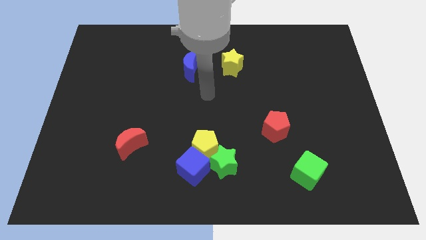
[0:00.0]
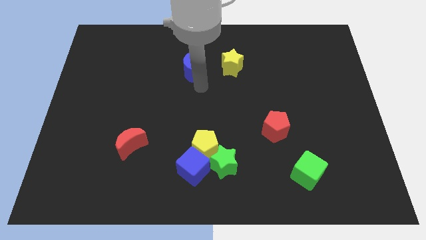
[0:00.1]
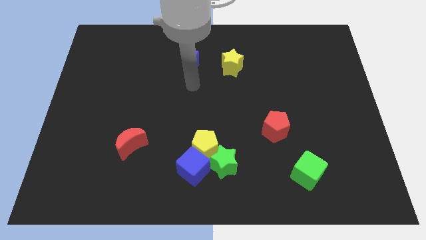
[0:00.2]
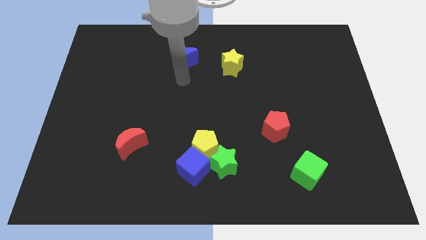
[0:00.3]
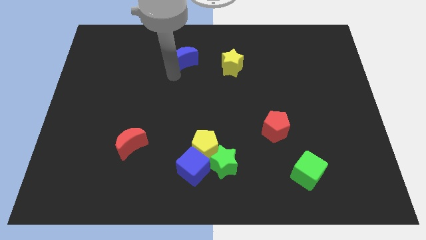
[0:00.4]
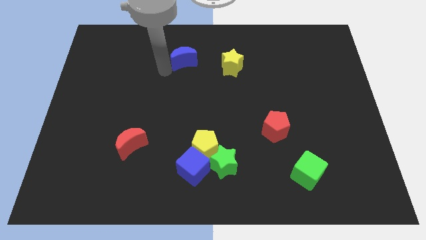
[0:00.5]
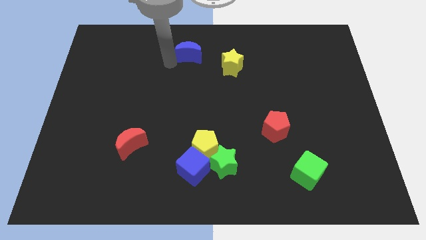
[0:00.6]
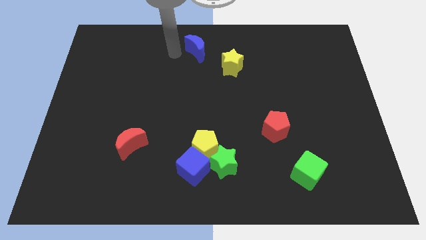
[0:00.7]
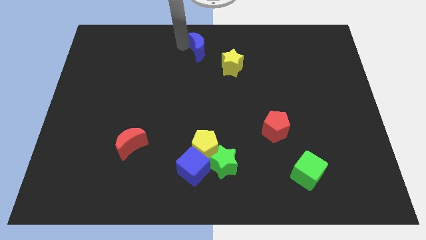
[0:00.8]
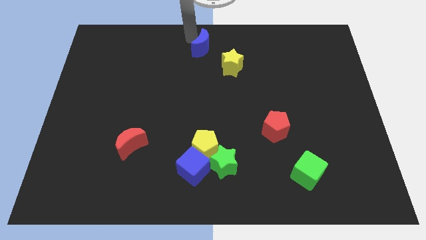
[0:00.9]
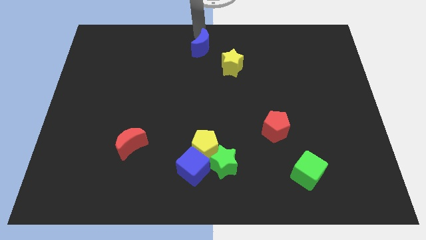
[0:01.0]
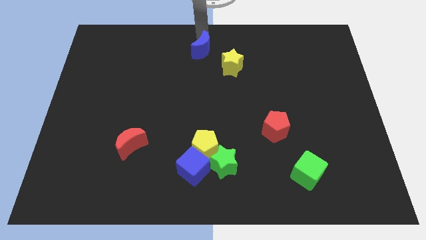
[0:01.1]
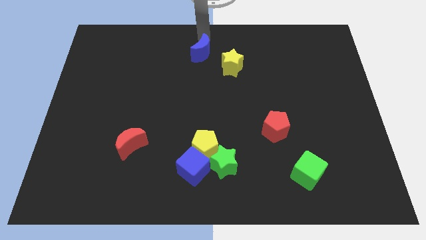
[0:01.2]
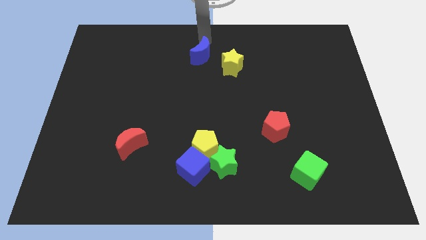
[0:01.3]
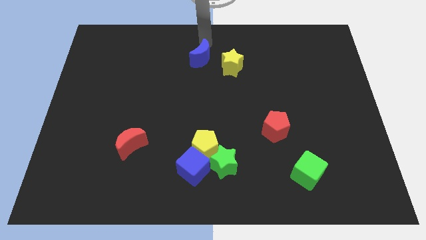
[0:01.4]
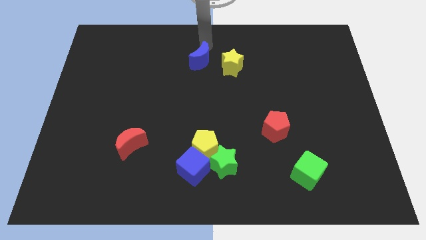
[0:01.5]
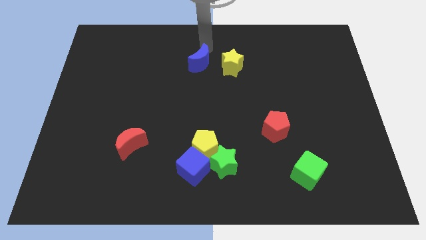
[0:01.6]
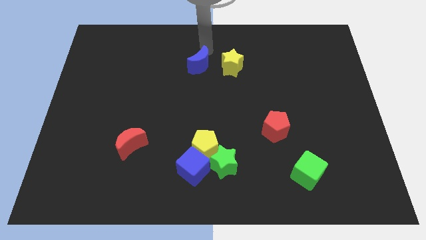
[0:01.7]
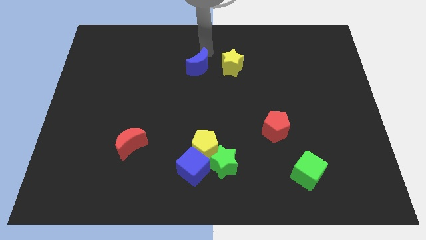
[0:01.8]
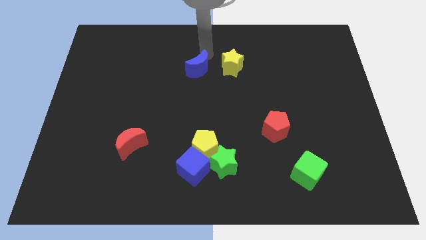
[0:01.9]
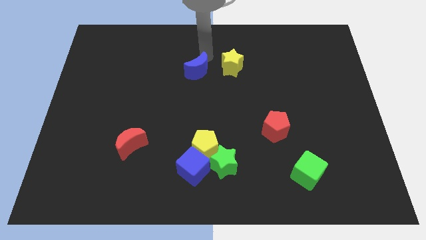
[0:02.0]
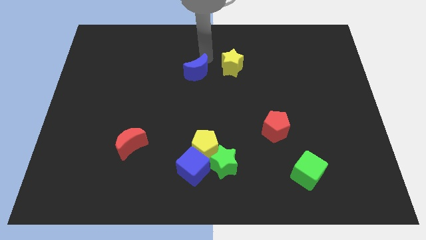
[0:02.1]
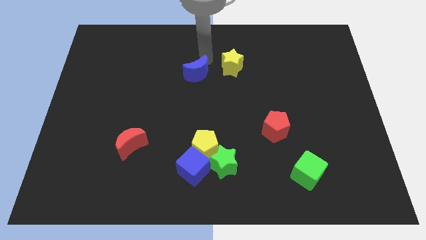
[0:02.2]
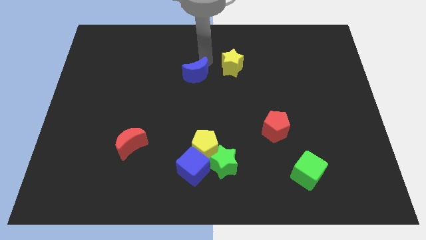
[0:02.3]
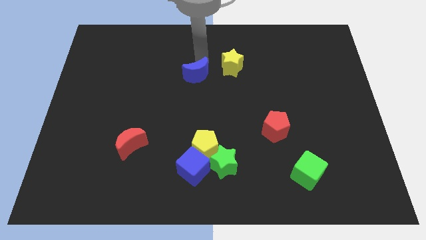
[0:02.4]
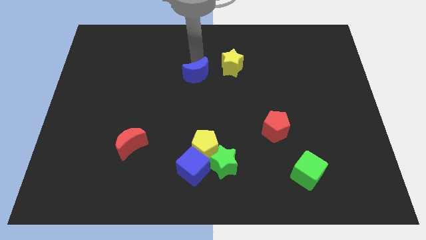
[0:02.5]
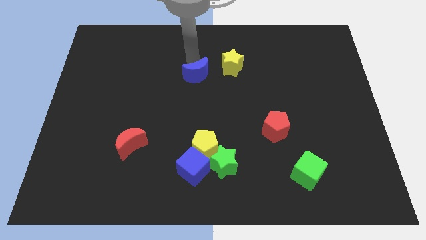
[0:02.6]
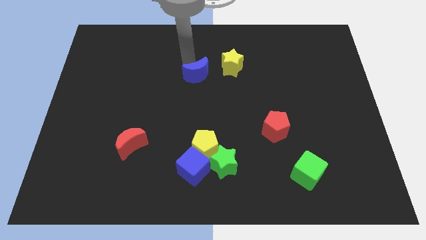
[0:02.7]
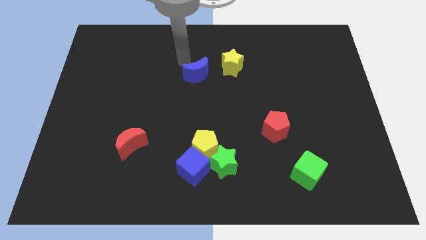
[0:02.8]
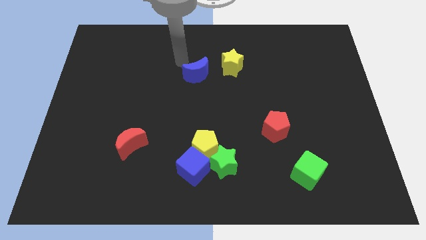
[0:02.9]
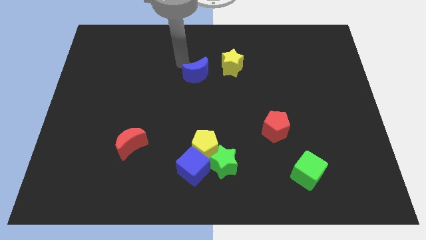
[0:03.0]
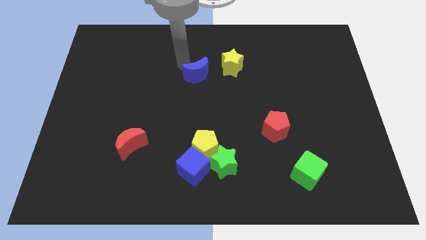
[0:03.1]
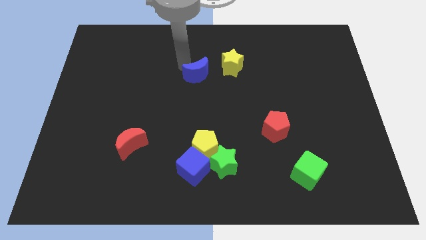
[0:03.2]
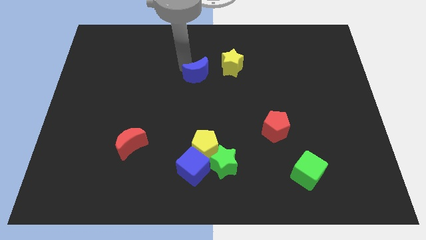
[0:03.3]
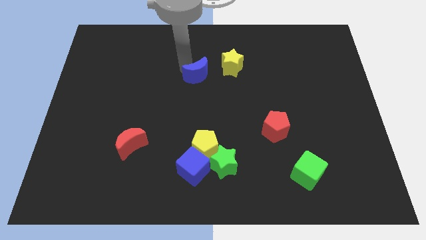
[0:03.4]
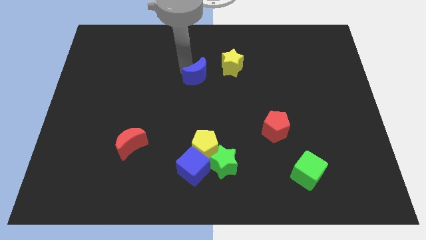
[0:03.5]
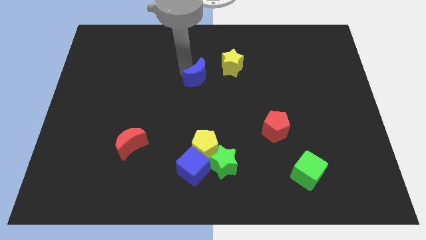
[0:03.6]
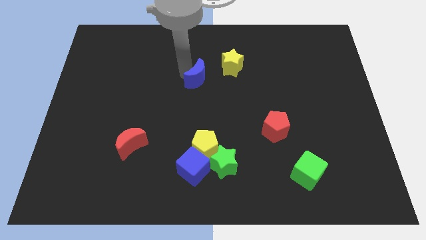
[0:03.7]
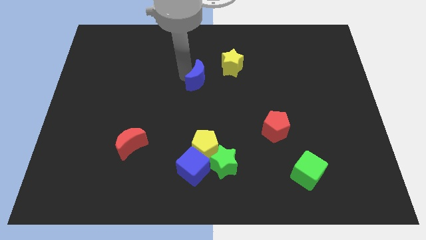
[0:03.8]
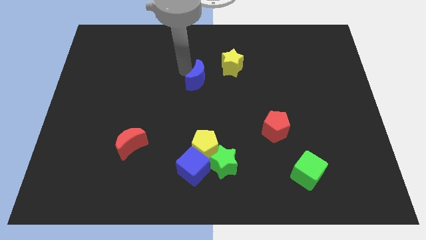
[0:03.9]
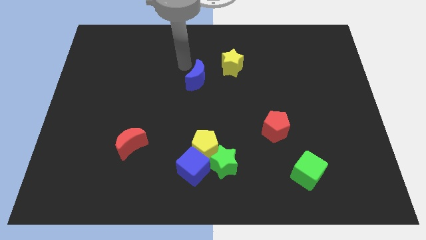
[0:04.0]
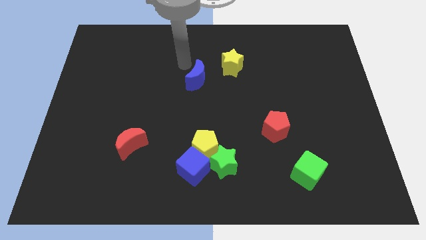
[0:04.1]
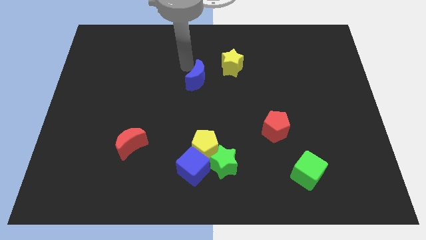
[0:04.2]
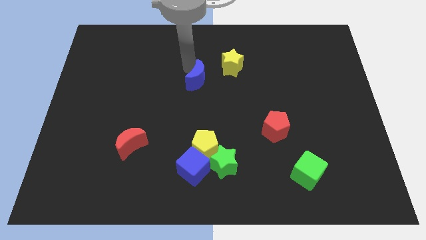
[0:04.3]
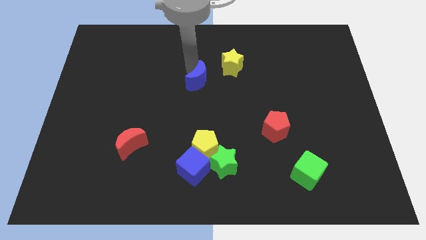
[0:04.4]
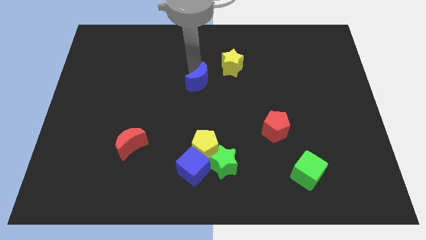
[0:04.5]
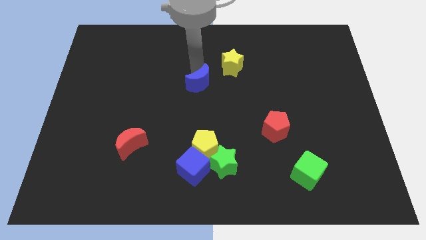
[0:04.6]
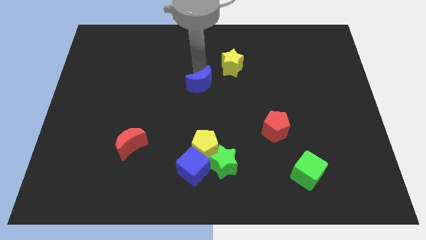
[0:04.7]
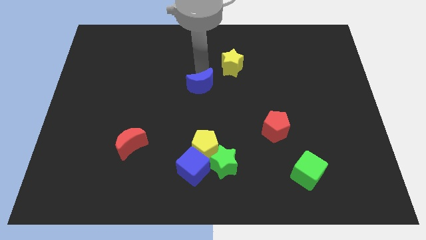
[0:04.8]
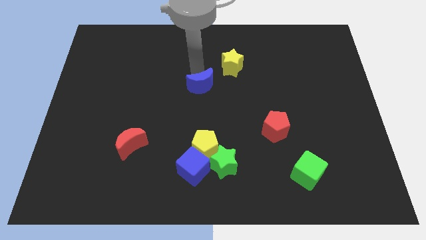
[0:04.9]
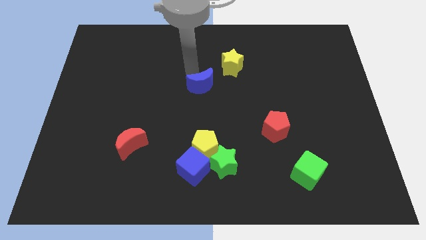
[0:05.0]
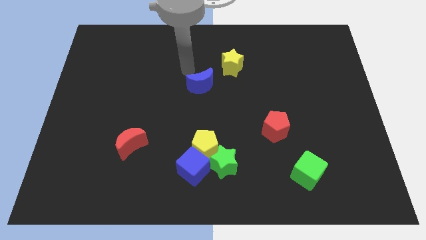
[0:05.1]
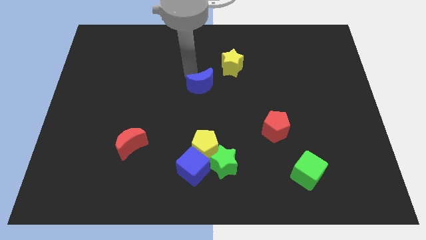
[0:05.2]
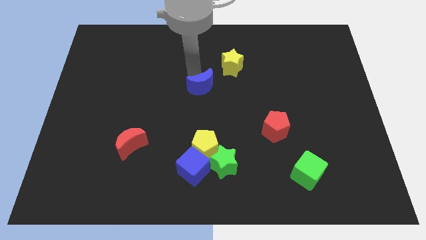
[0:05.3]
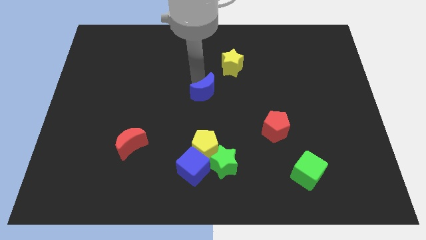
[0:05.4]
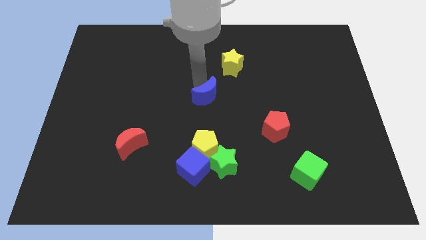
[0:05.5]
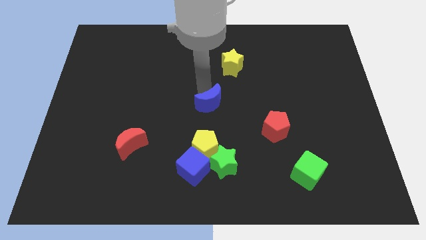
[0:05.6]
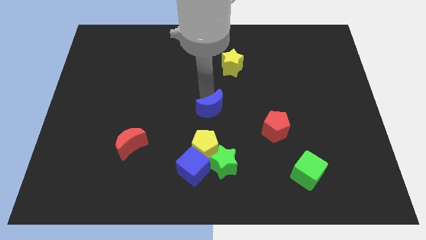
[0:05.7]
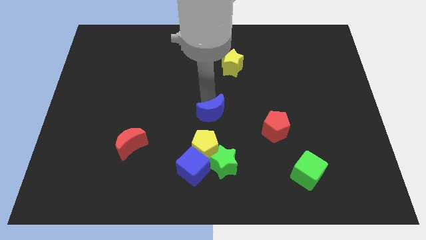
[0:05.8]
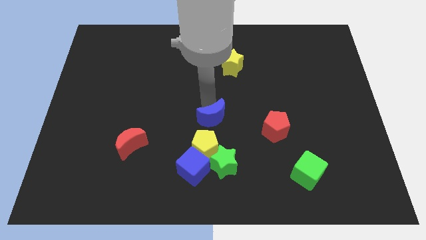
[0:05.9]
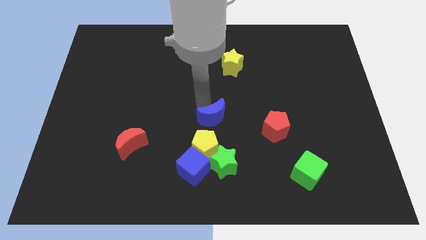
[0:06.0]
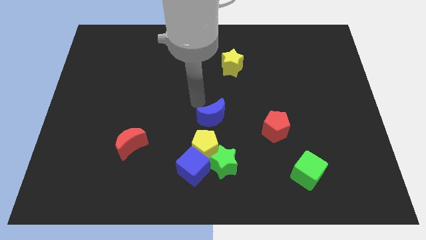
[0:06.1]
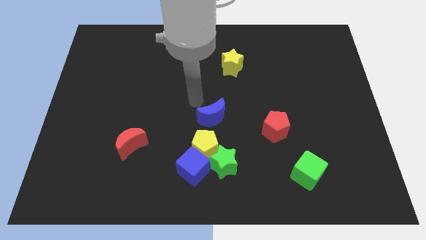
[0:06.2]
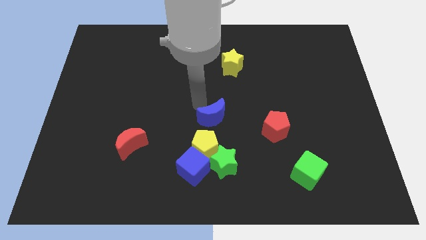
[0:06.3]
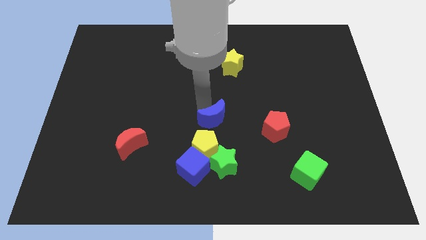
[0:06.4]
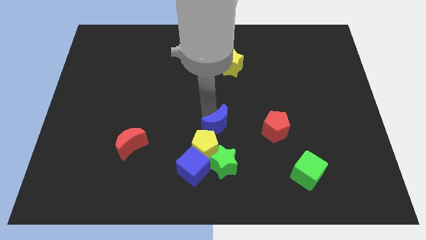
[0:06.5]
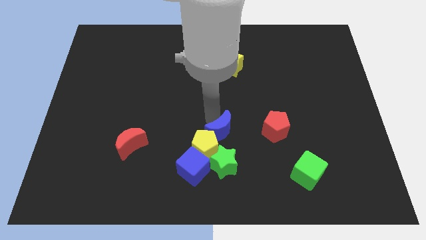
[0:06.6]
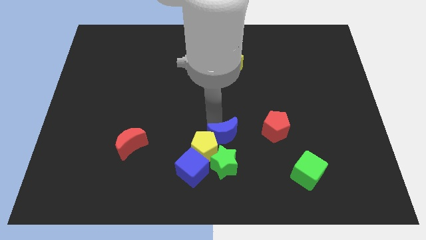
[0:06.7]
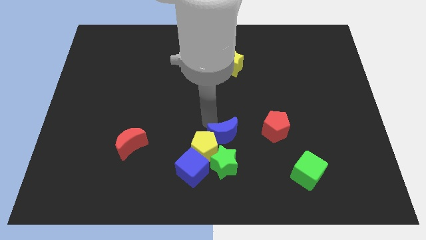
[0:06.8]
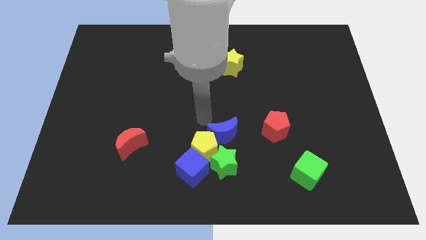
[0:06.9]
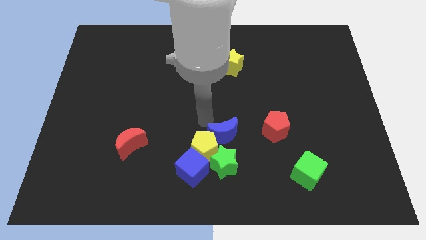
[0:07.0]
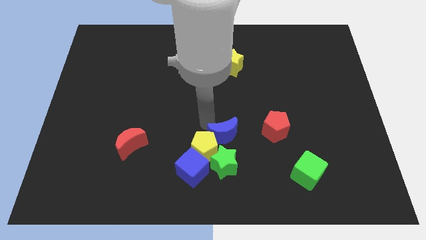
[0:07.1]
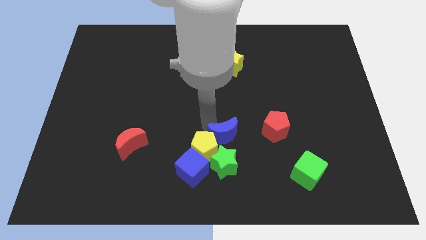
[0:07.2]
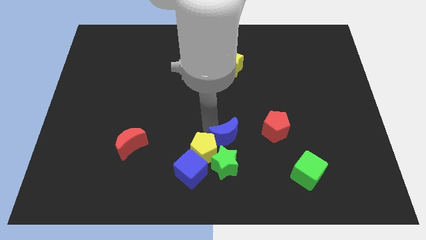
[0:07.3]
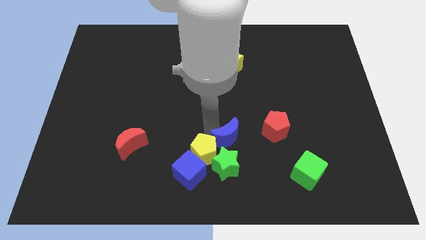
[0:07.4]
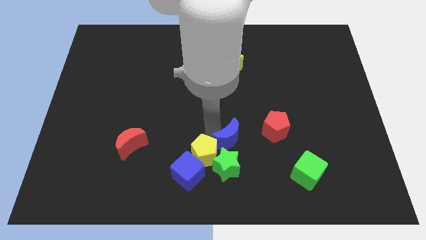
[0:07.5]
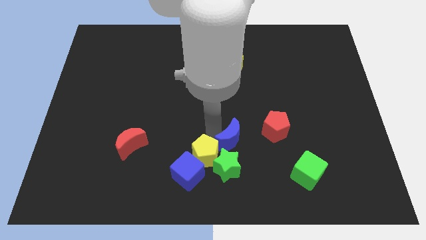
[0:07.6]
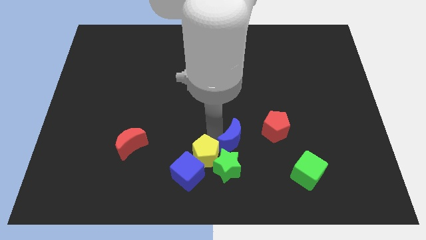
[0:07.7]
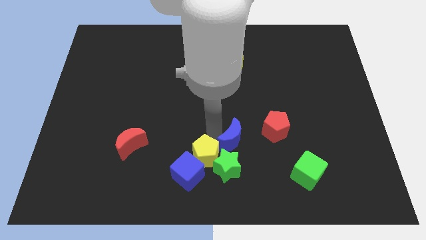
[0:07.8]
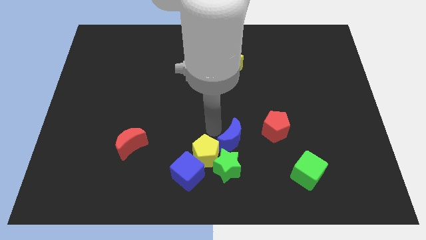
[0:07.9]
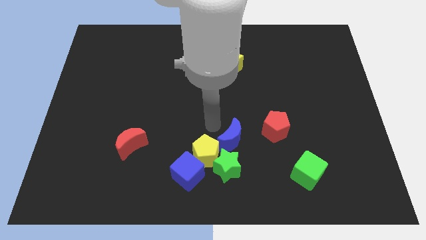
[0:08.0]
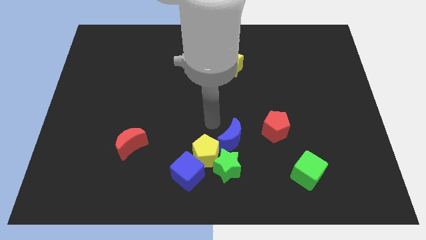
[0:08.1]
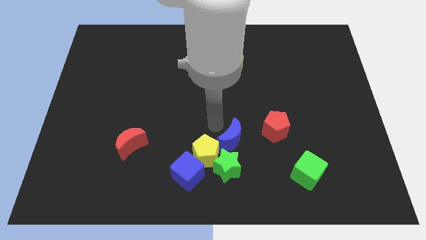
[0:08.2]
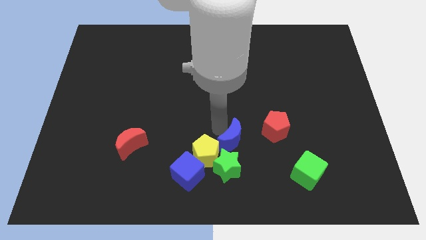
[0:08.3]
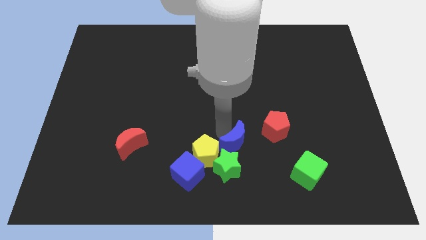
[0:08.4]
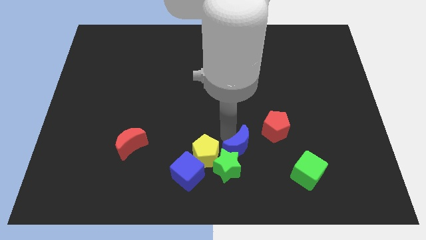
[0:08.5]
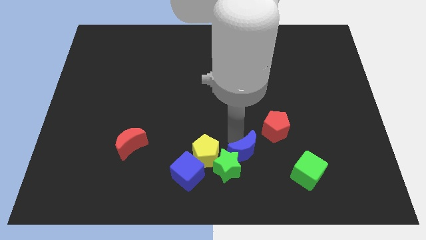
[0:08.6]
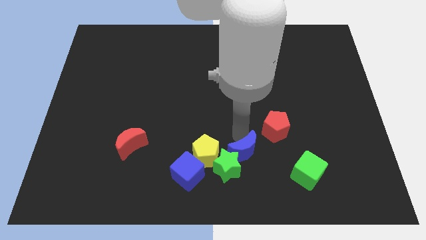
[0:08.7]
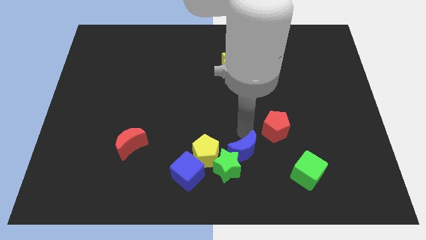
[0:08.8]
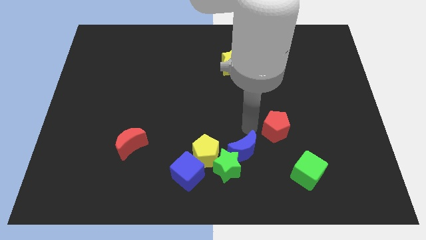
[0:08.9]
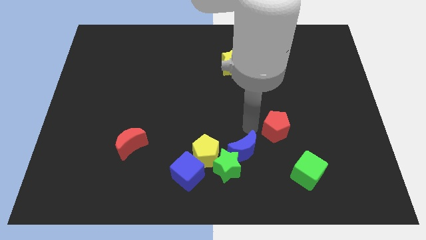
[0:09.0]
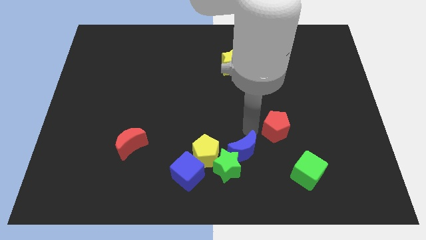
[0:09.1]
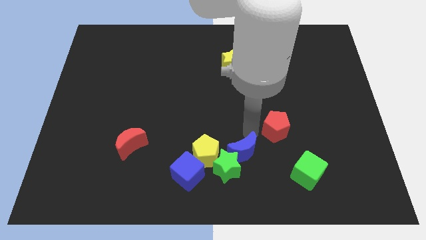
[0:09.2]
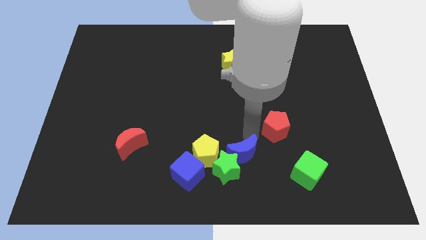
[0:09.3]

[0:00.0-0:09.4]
move the blue moon to the right of the blue cube
